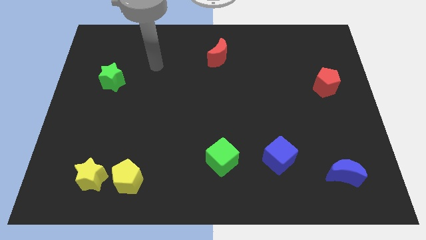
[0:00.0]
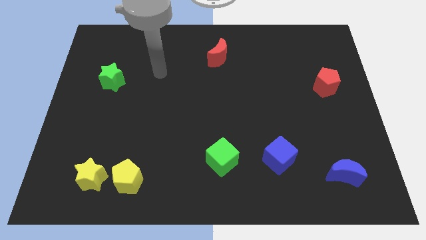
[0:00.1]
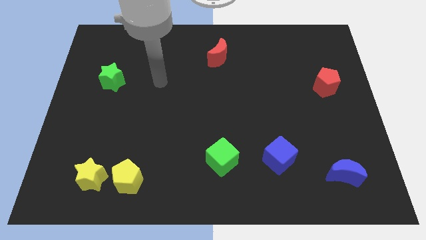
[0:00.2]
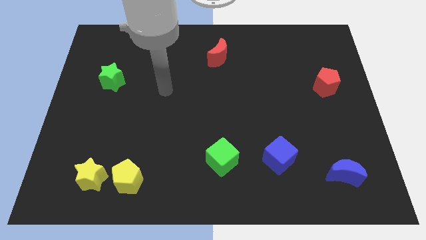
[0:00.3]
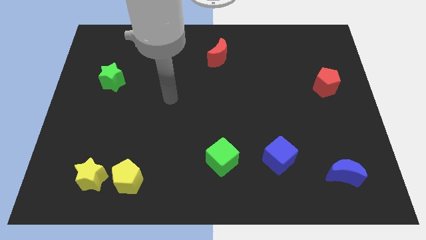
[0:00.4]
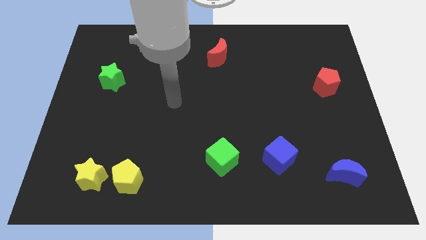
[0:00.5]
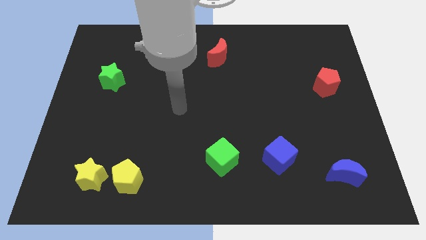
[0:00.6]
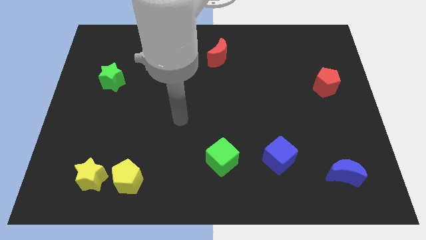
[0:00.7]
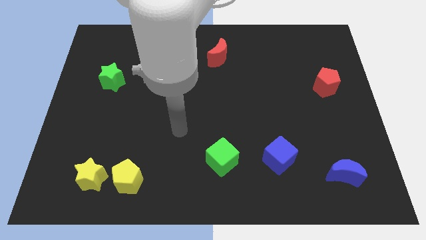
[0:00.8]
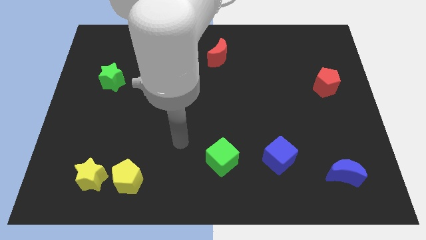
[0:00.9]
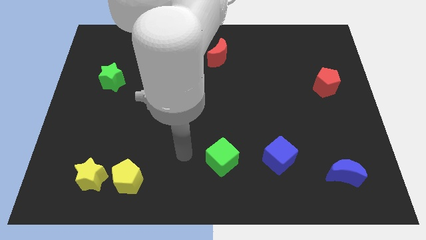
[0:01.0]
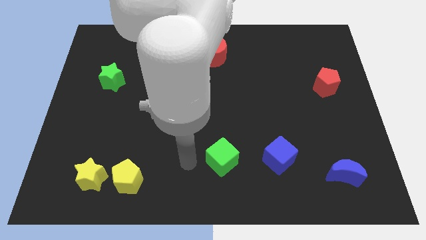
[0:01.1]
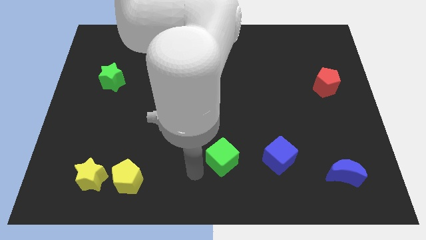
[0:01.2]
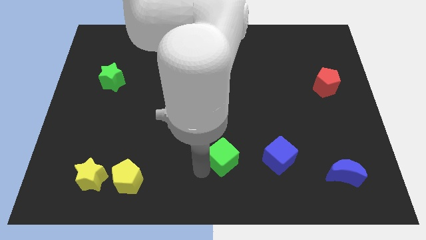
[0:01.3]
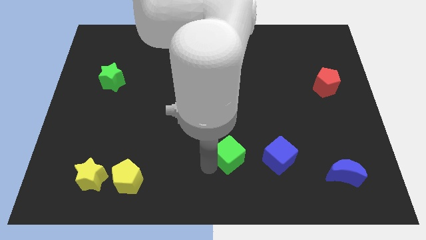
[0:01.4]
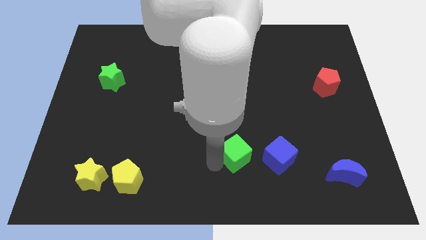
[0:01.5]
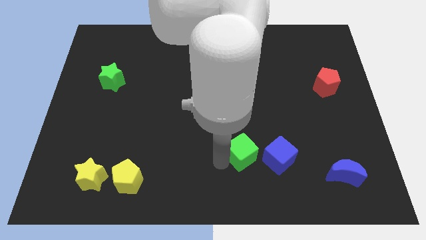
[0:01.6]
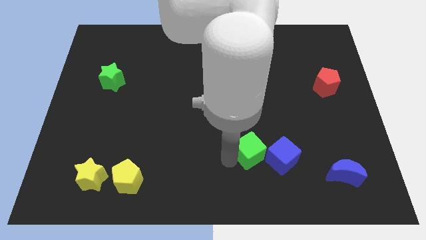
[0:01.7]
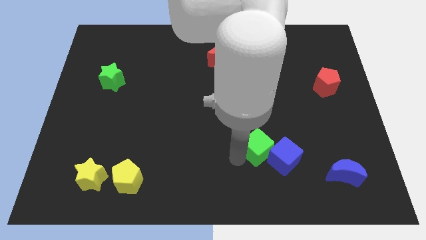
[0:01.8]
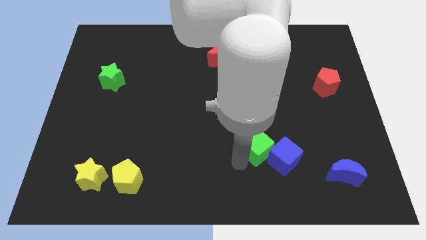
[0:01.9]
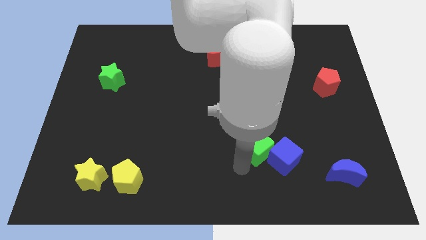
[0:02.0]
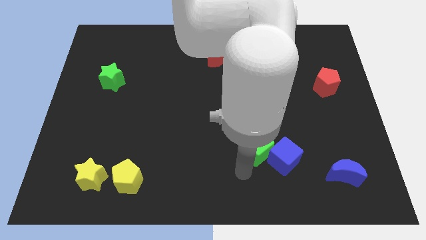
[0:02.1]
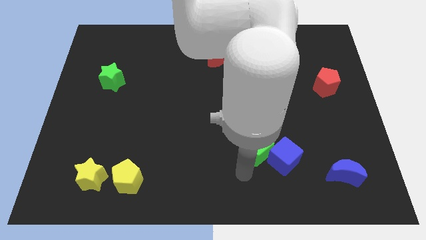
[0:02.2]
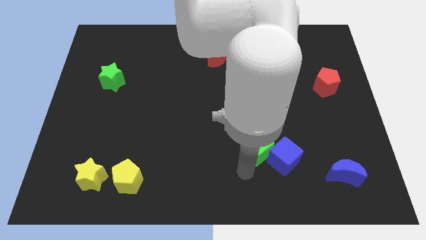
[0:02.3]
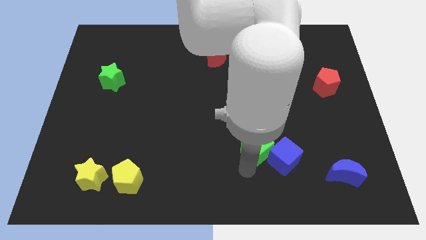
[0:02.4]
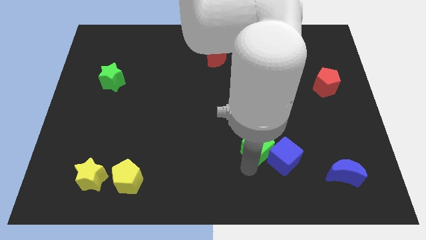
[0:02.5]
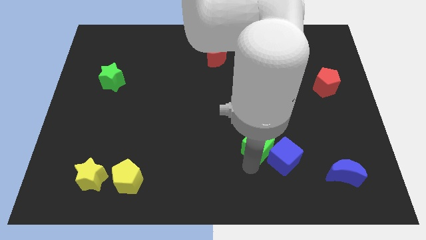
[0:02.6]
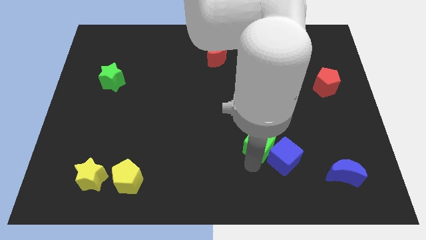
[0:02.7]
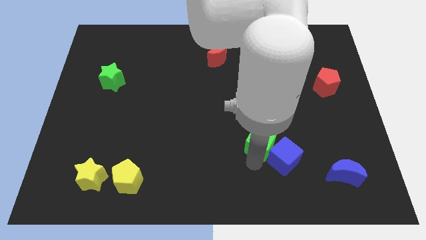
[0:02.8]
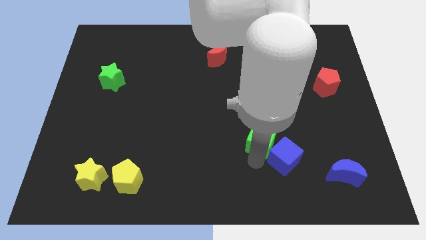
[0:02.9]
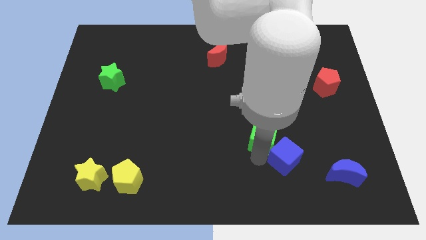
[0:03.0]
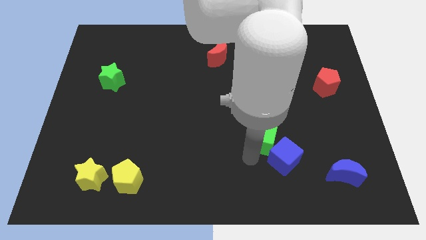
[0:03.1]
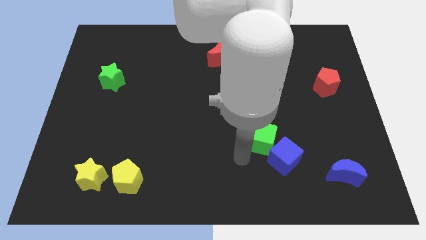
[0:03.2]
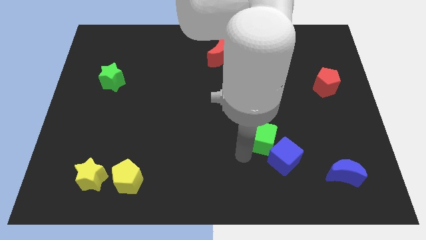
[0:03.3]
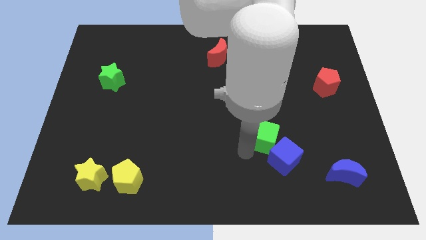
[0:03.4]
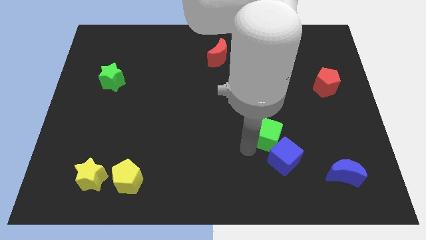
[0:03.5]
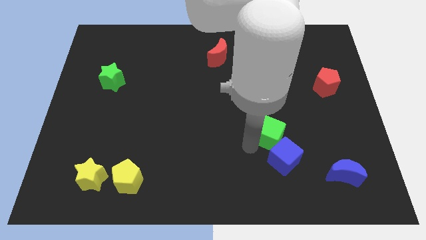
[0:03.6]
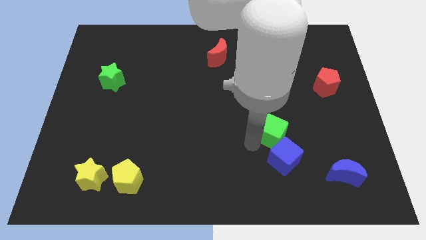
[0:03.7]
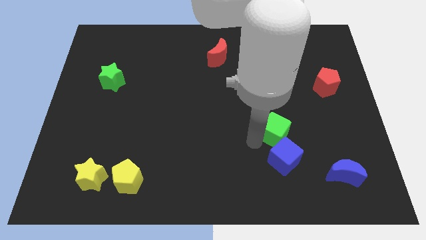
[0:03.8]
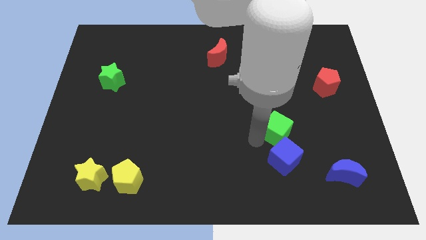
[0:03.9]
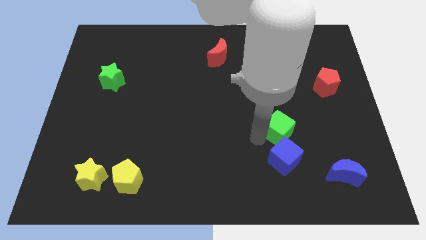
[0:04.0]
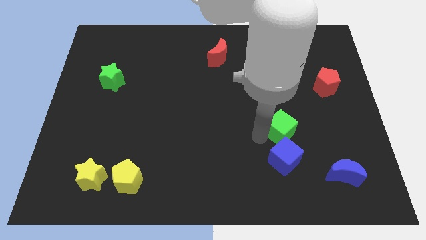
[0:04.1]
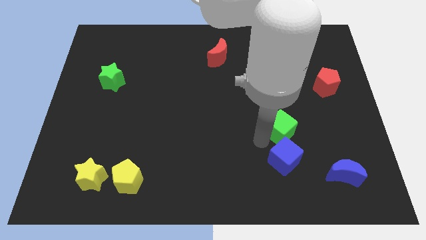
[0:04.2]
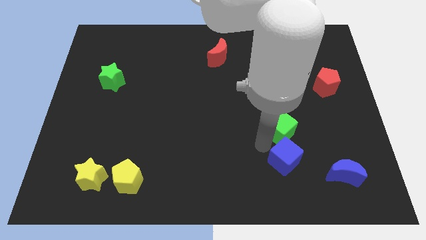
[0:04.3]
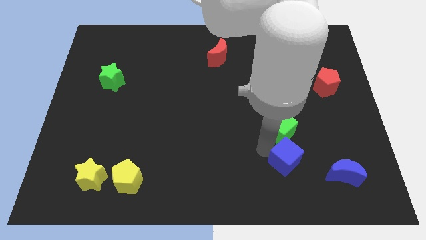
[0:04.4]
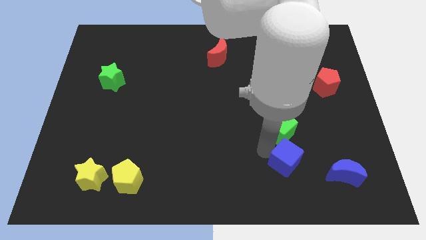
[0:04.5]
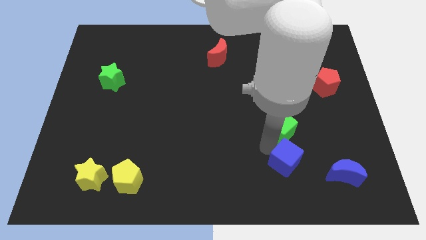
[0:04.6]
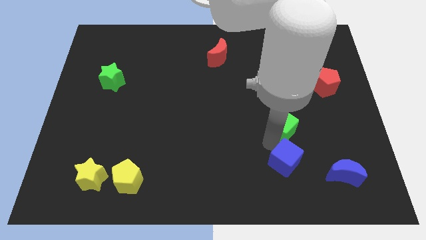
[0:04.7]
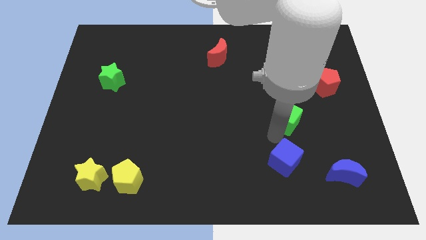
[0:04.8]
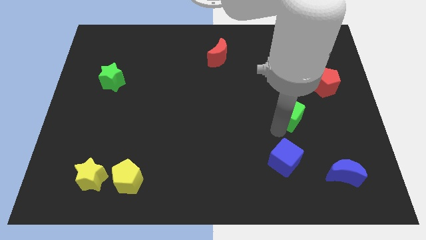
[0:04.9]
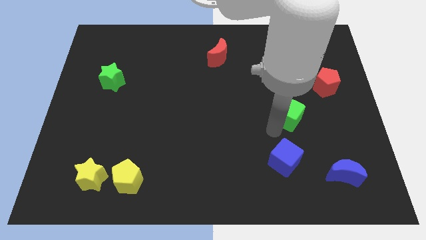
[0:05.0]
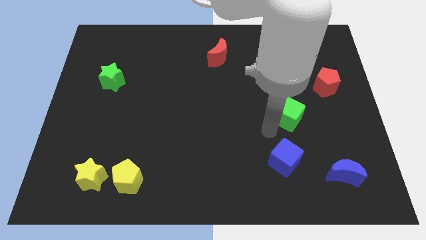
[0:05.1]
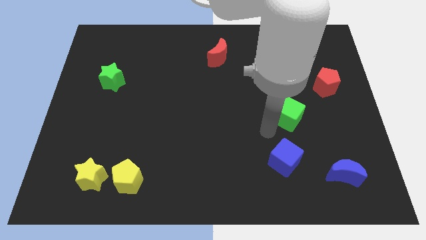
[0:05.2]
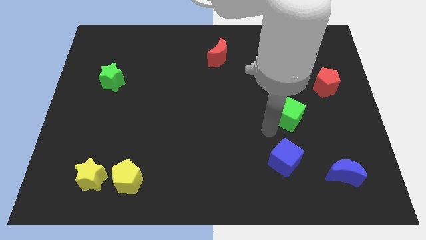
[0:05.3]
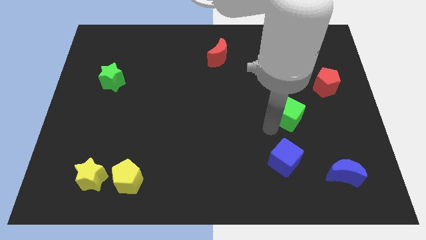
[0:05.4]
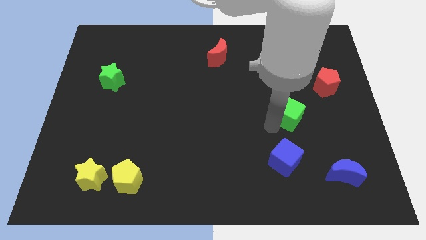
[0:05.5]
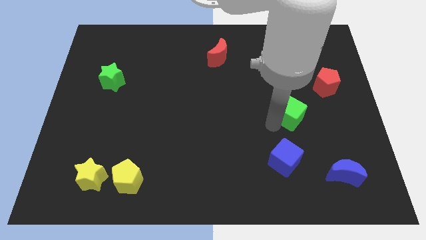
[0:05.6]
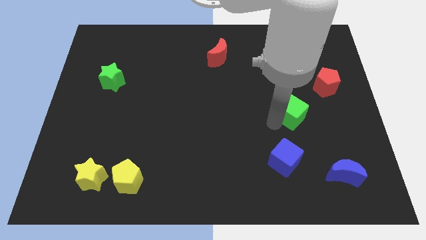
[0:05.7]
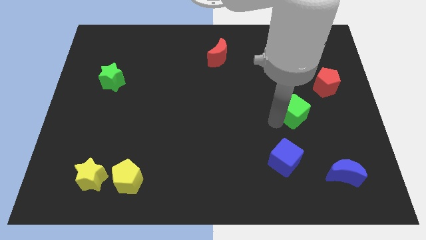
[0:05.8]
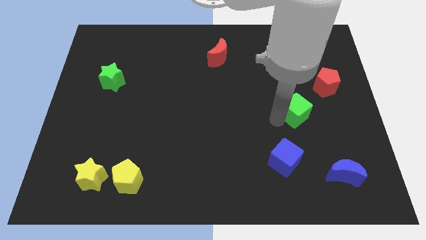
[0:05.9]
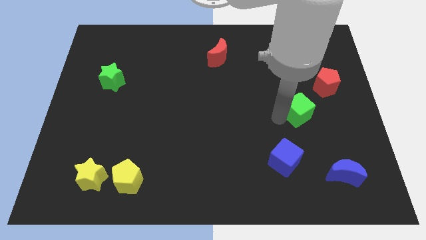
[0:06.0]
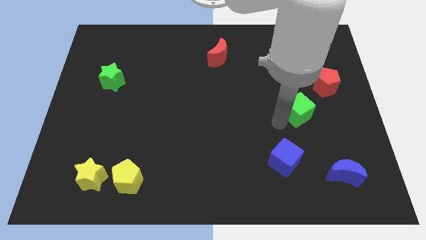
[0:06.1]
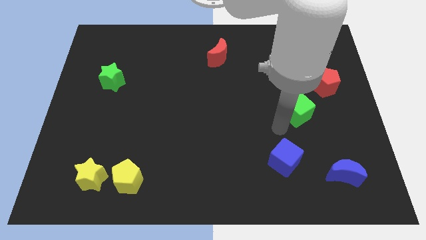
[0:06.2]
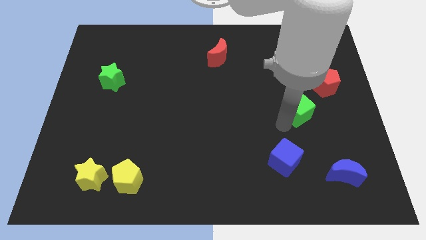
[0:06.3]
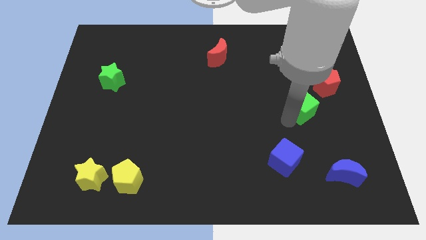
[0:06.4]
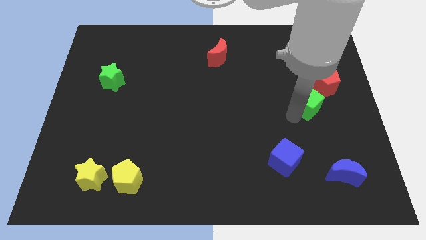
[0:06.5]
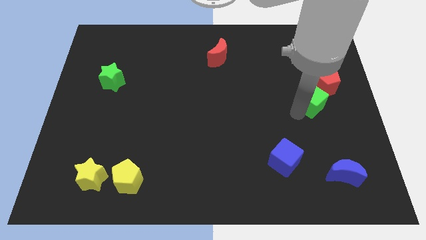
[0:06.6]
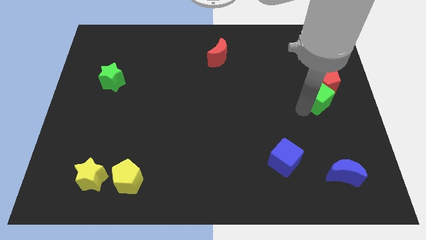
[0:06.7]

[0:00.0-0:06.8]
push the green cube towards the red pentagon
